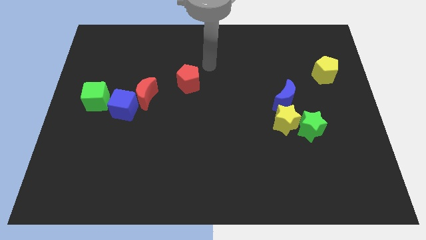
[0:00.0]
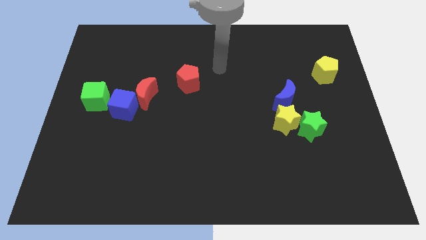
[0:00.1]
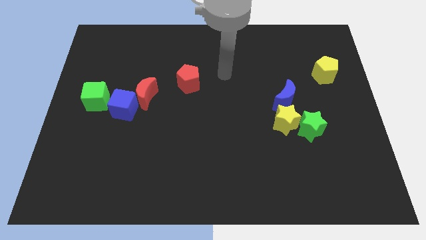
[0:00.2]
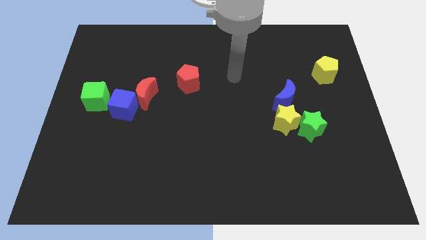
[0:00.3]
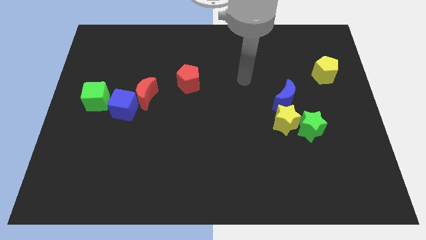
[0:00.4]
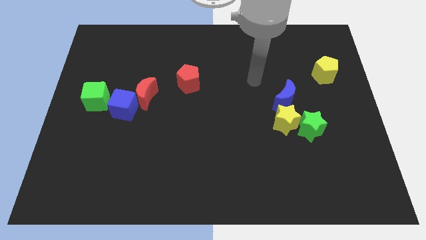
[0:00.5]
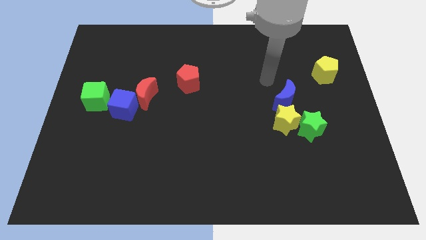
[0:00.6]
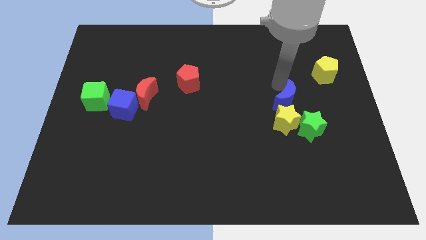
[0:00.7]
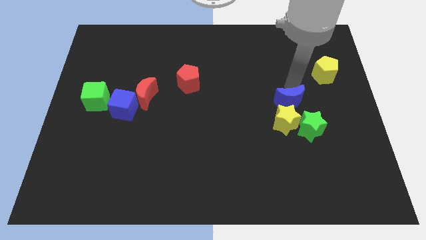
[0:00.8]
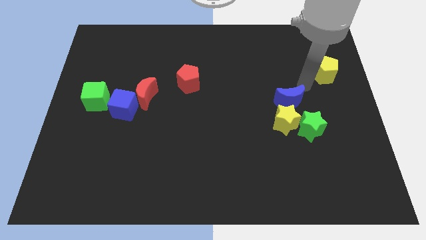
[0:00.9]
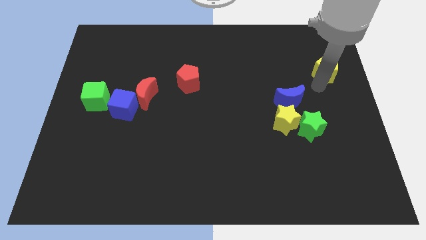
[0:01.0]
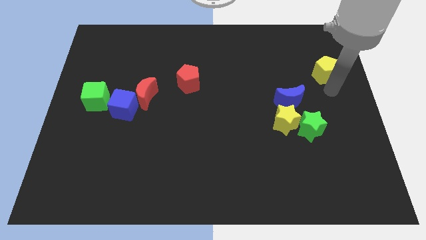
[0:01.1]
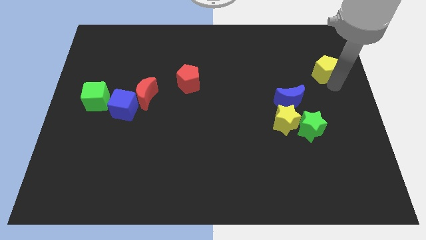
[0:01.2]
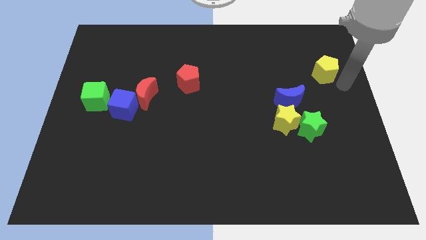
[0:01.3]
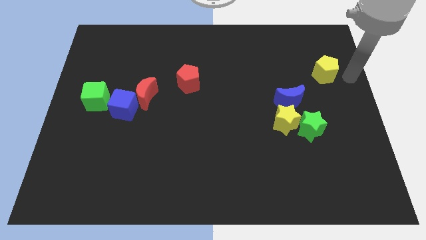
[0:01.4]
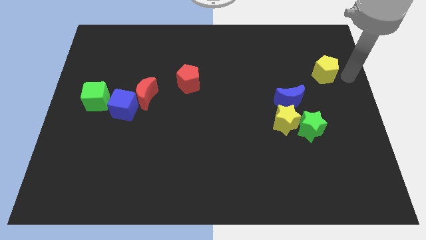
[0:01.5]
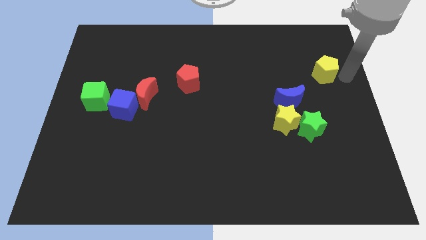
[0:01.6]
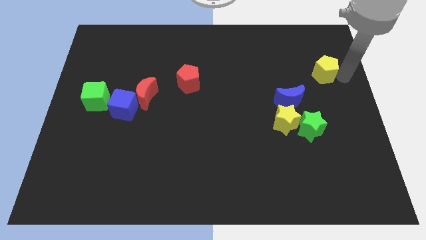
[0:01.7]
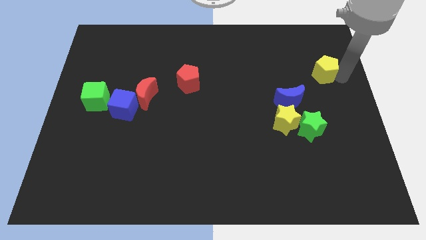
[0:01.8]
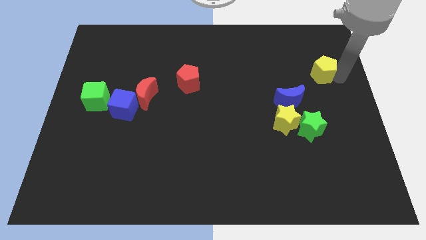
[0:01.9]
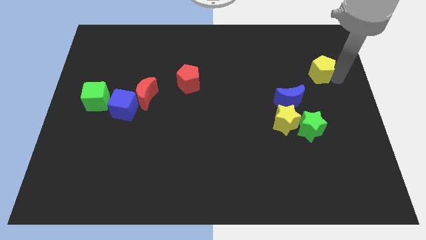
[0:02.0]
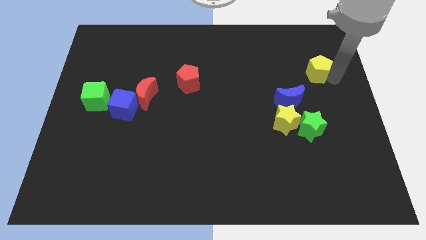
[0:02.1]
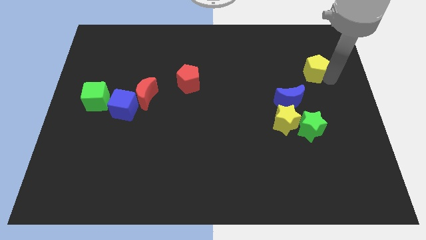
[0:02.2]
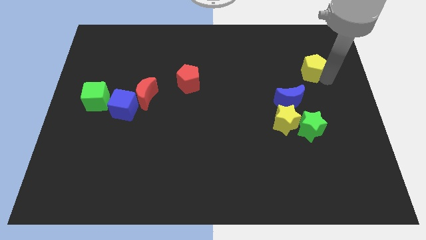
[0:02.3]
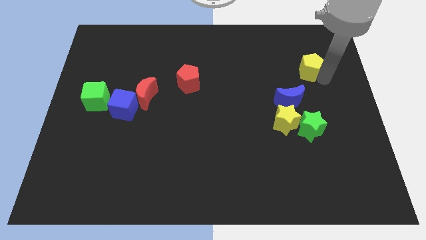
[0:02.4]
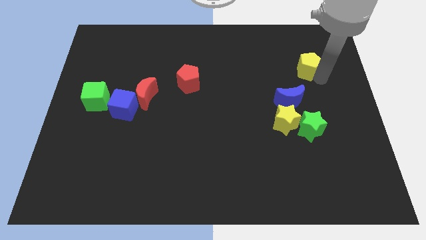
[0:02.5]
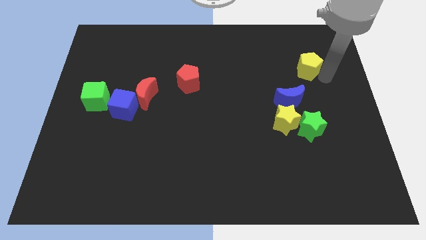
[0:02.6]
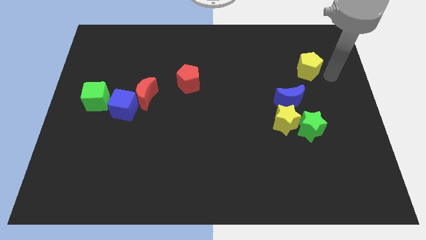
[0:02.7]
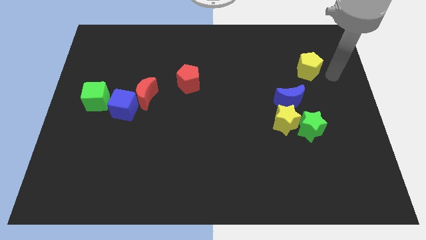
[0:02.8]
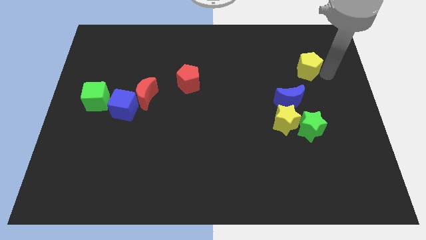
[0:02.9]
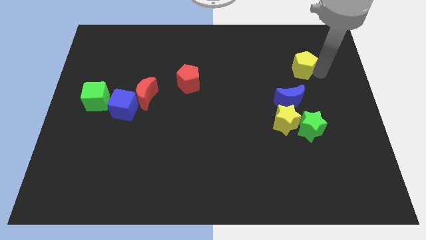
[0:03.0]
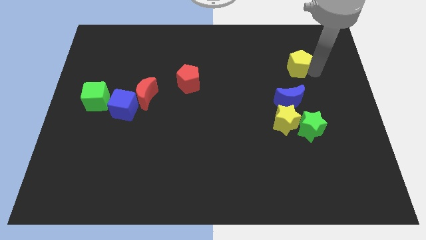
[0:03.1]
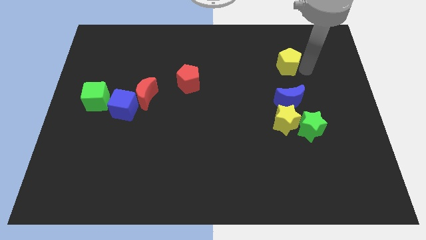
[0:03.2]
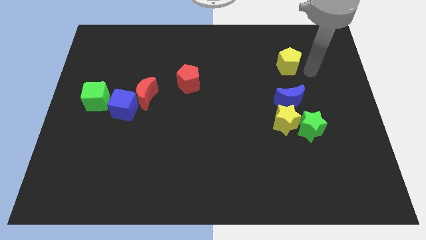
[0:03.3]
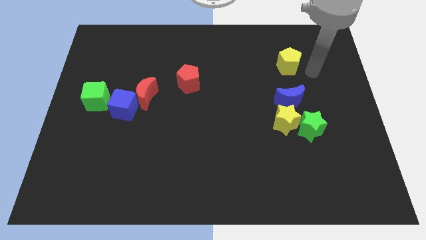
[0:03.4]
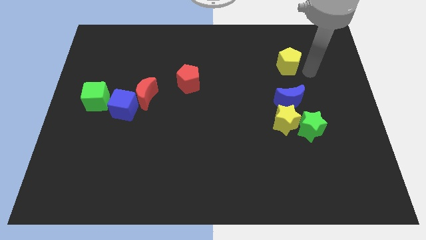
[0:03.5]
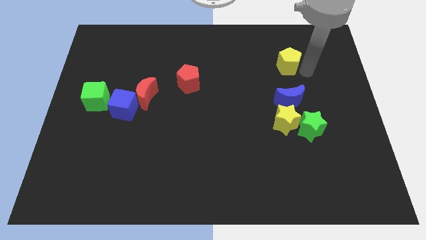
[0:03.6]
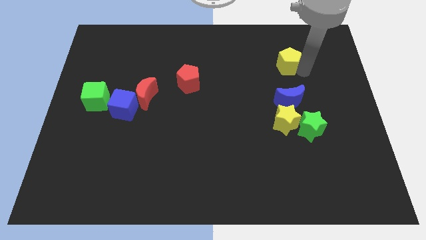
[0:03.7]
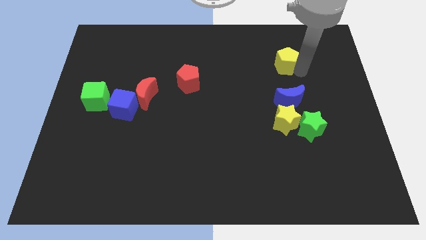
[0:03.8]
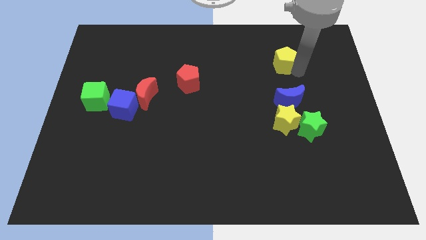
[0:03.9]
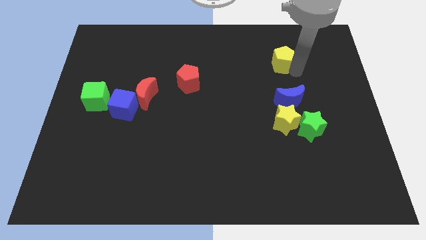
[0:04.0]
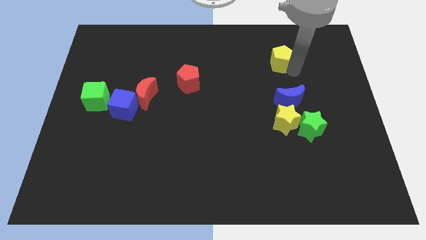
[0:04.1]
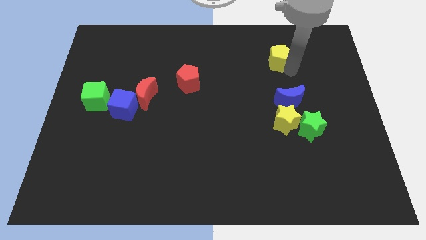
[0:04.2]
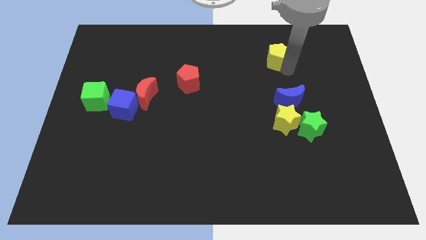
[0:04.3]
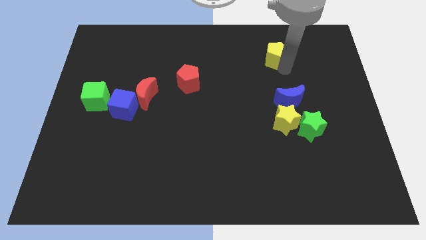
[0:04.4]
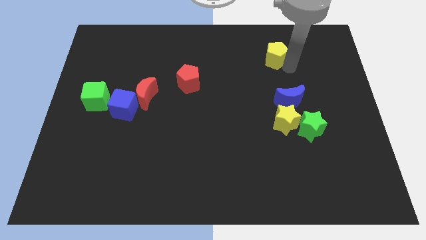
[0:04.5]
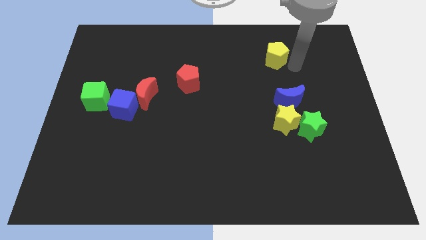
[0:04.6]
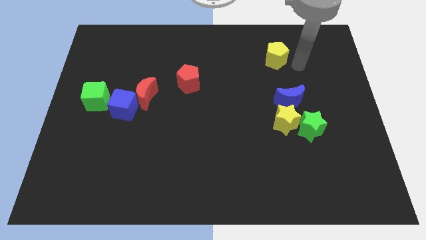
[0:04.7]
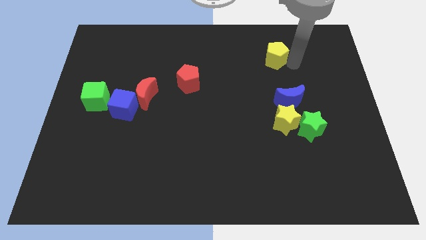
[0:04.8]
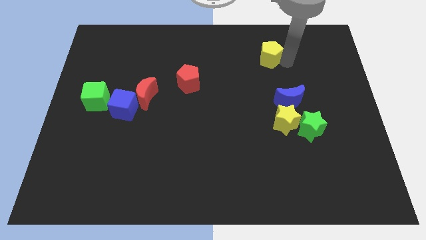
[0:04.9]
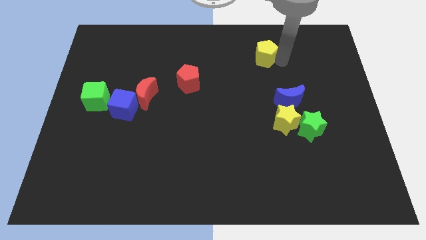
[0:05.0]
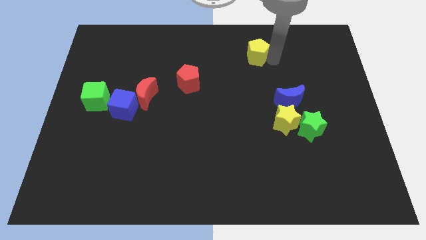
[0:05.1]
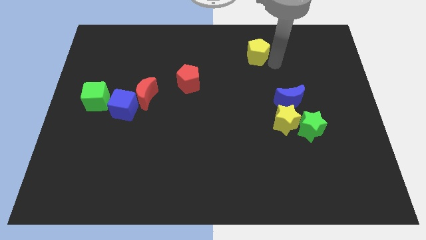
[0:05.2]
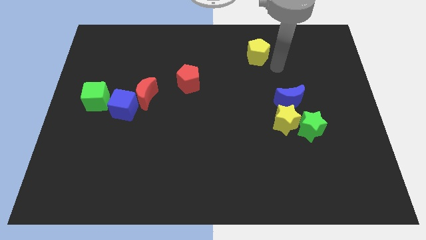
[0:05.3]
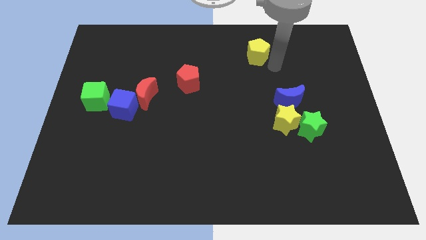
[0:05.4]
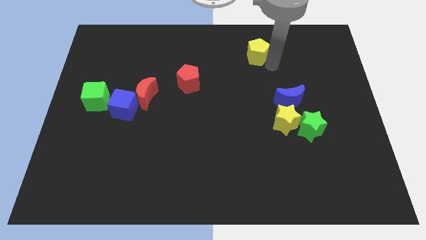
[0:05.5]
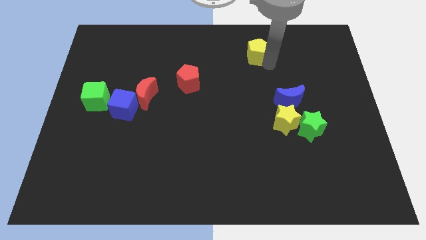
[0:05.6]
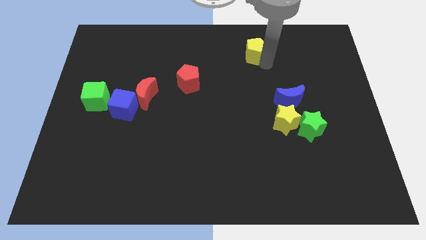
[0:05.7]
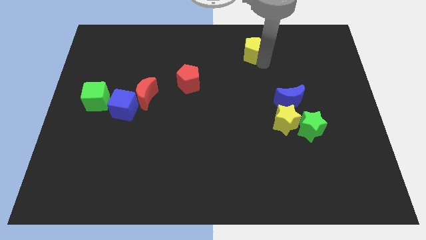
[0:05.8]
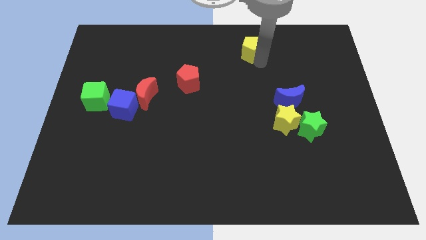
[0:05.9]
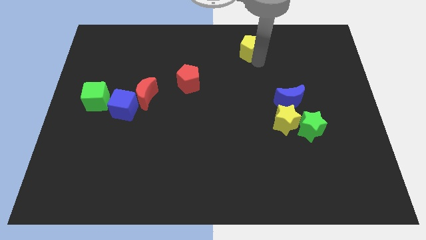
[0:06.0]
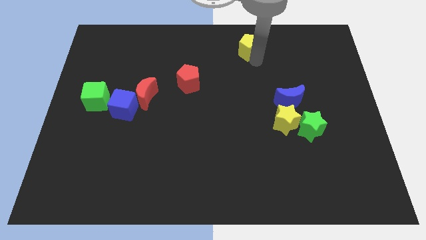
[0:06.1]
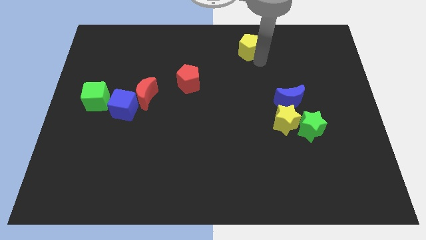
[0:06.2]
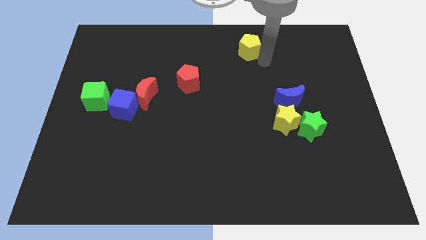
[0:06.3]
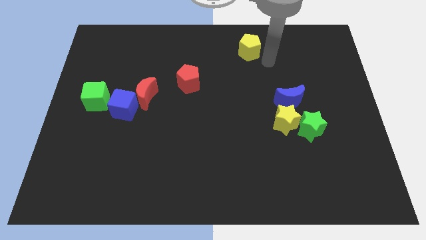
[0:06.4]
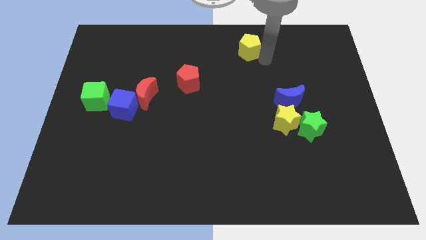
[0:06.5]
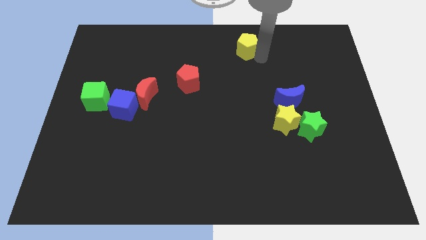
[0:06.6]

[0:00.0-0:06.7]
push the yellow pentagon to the top
